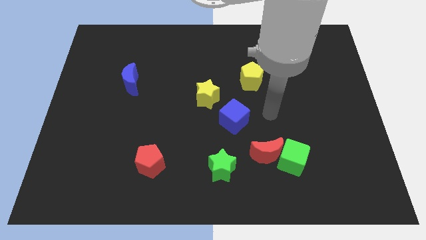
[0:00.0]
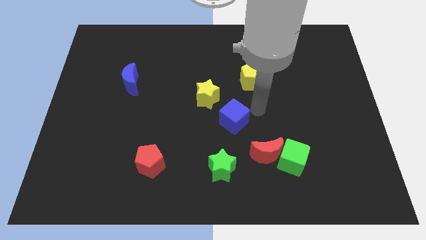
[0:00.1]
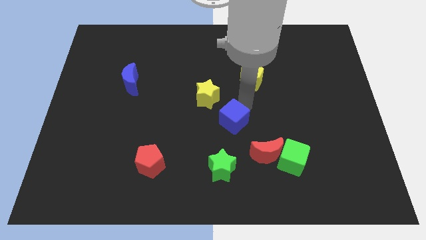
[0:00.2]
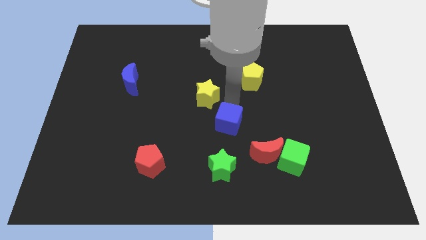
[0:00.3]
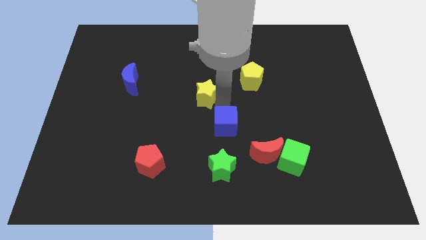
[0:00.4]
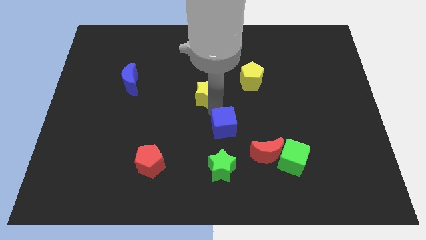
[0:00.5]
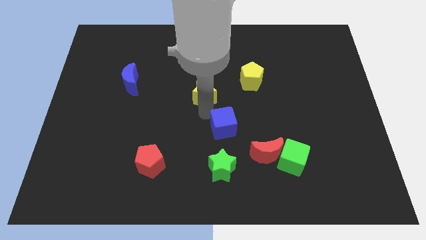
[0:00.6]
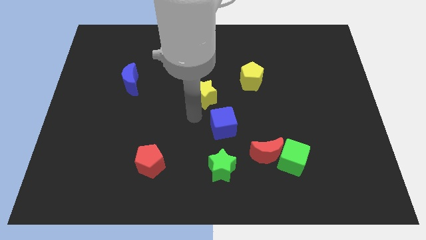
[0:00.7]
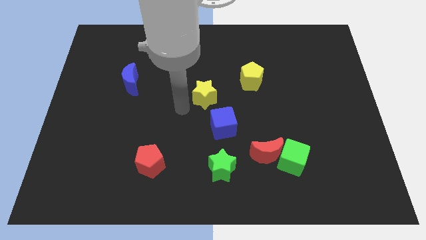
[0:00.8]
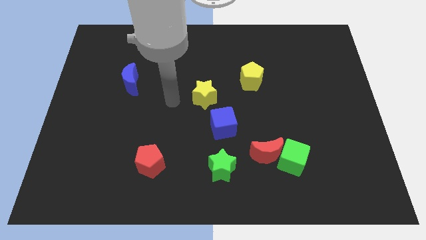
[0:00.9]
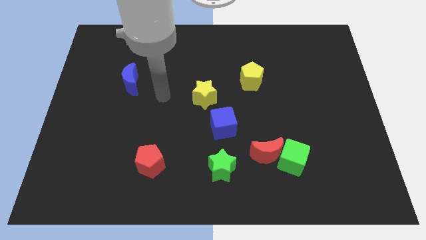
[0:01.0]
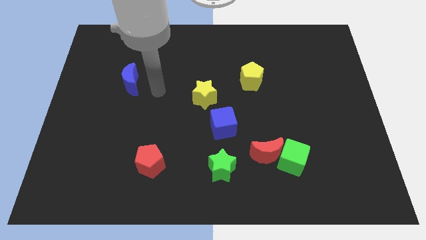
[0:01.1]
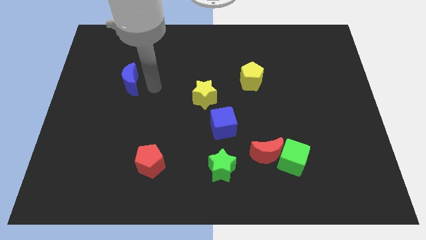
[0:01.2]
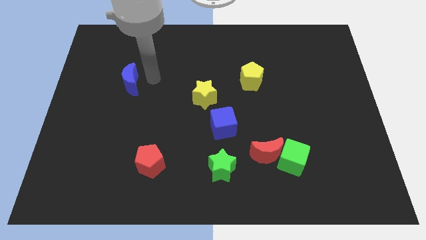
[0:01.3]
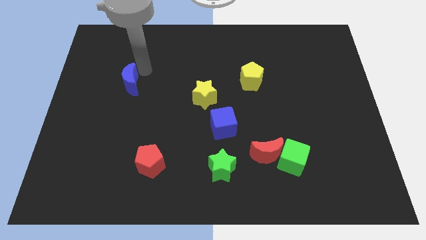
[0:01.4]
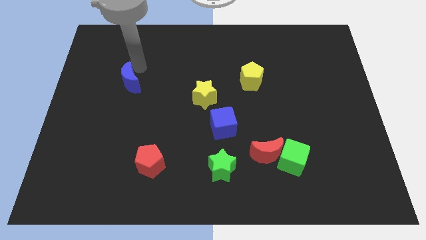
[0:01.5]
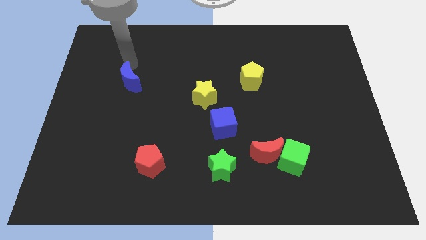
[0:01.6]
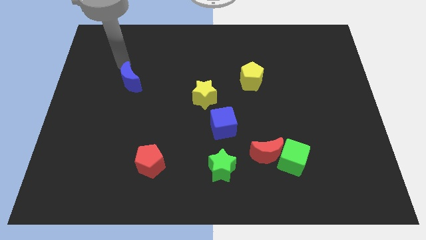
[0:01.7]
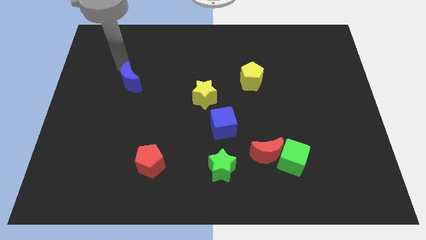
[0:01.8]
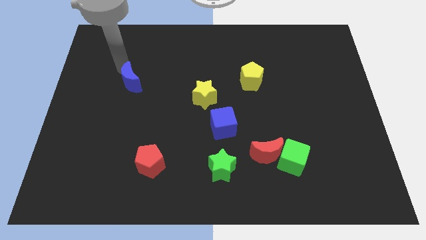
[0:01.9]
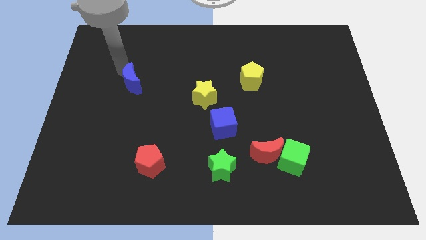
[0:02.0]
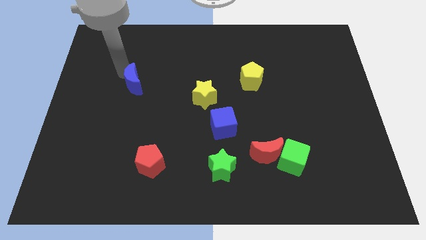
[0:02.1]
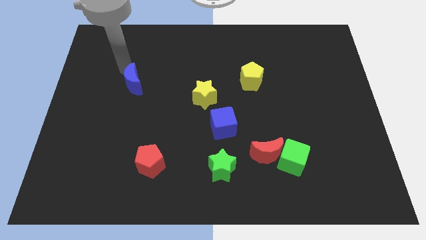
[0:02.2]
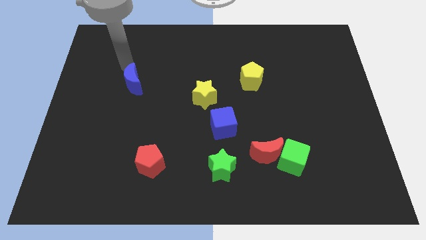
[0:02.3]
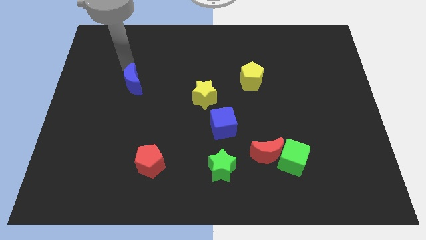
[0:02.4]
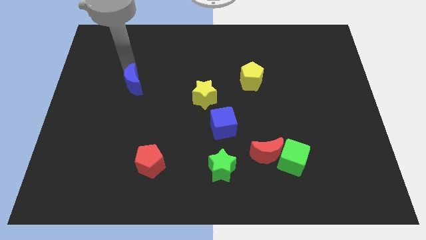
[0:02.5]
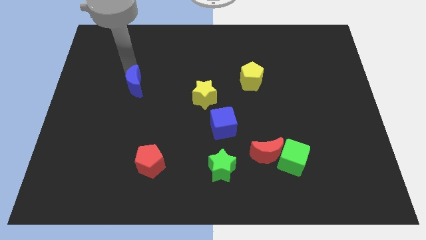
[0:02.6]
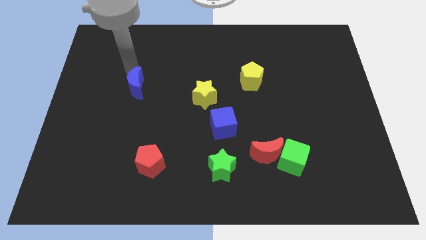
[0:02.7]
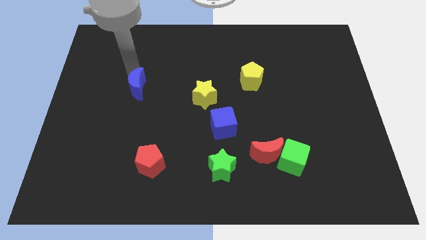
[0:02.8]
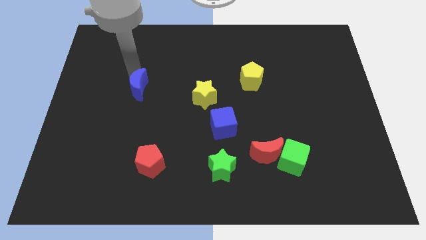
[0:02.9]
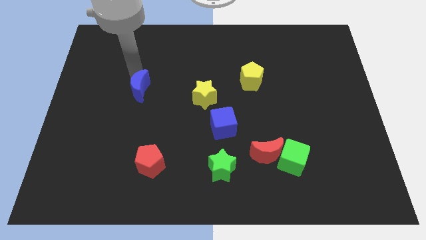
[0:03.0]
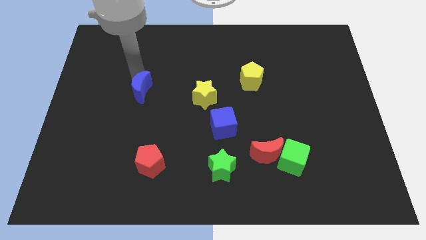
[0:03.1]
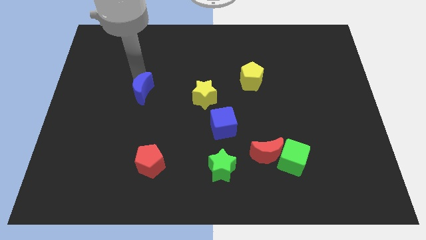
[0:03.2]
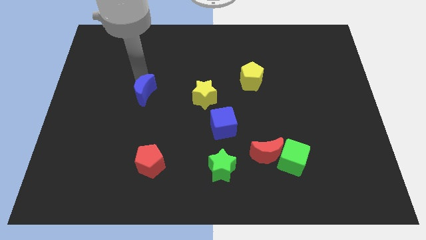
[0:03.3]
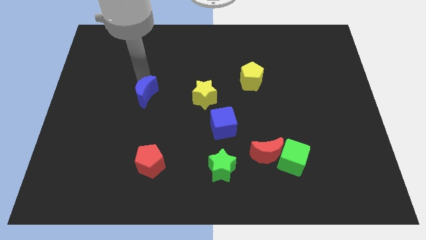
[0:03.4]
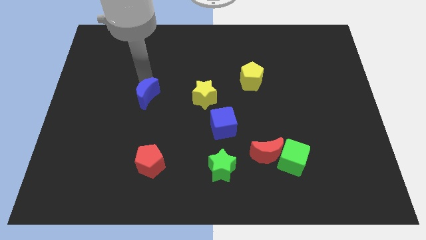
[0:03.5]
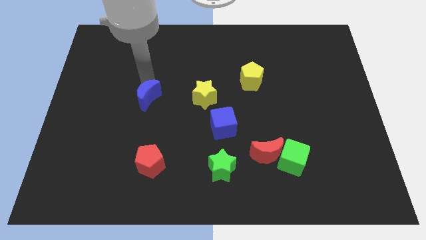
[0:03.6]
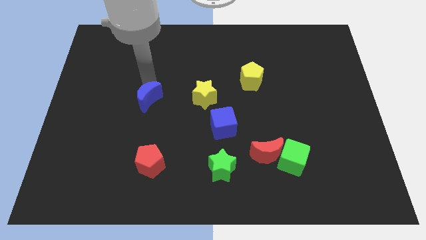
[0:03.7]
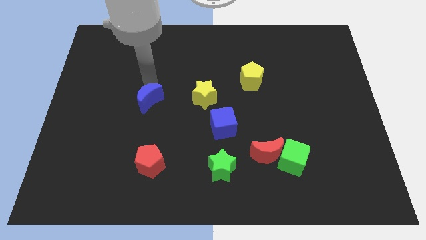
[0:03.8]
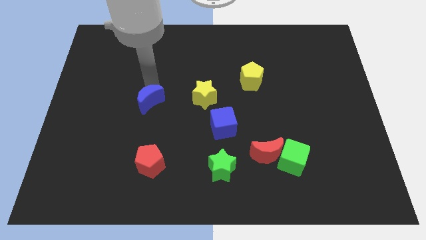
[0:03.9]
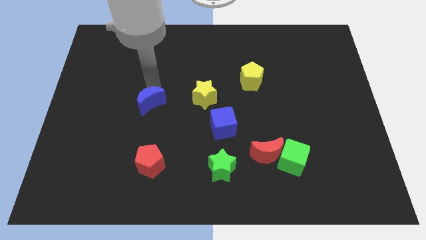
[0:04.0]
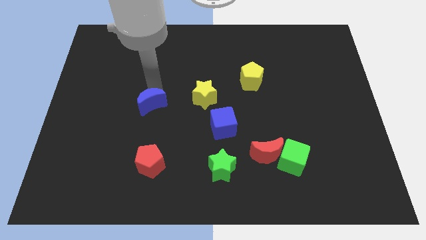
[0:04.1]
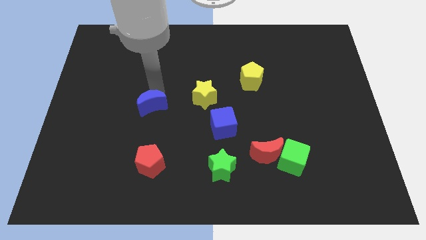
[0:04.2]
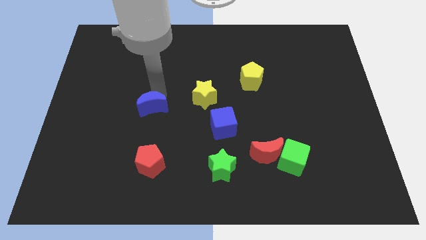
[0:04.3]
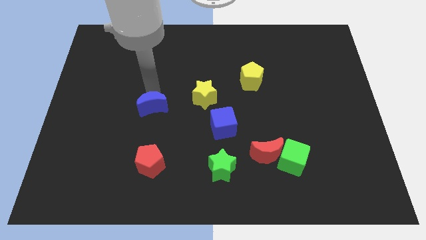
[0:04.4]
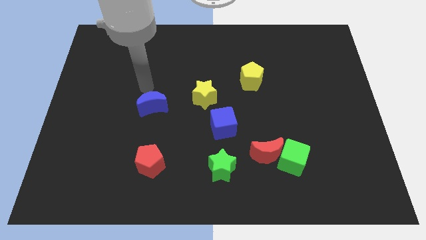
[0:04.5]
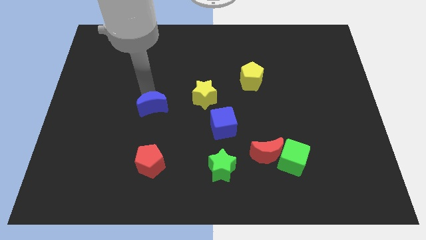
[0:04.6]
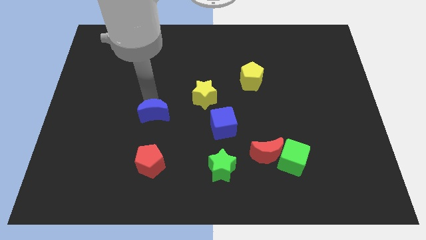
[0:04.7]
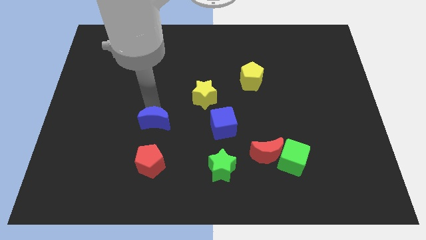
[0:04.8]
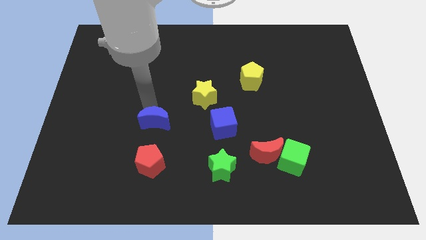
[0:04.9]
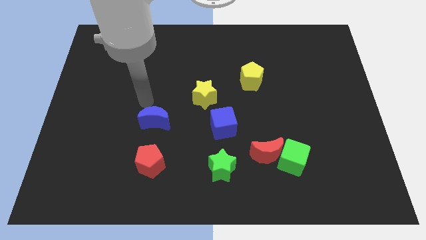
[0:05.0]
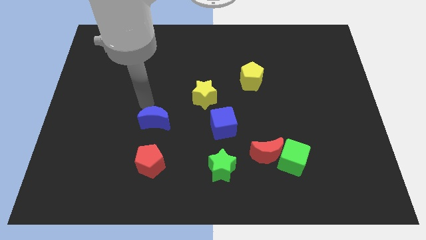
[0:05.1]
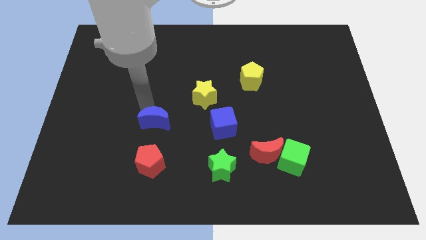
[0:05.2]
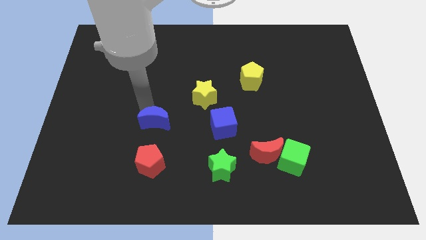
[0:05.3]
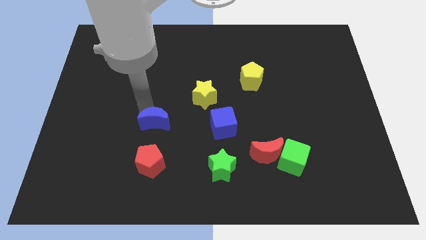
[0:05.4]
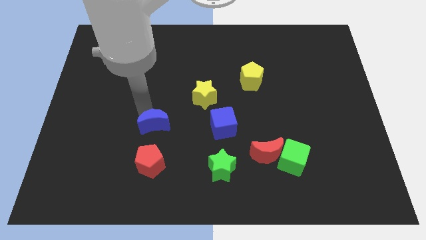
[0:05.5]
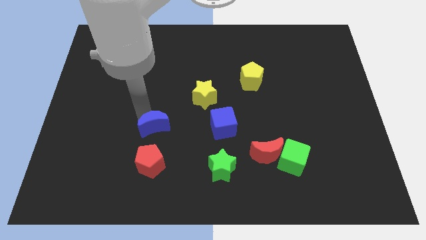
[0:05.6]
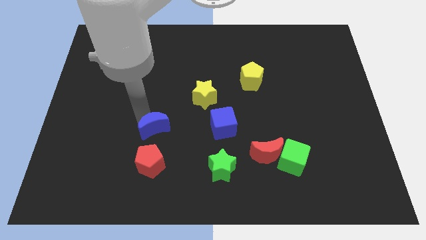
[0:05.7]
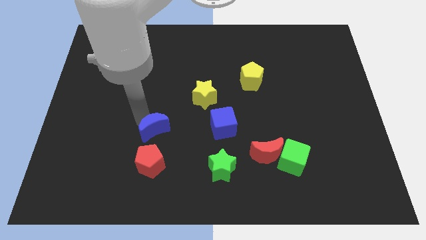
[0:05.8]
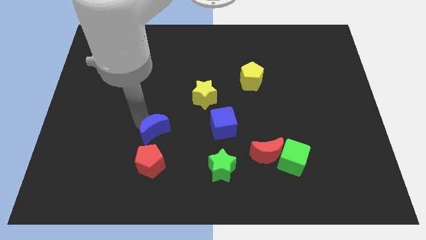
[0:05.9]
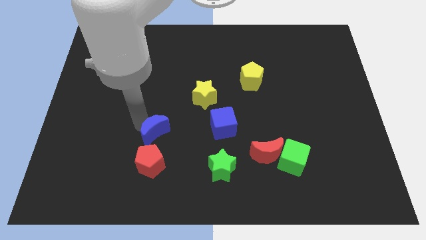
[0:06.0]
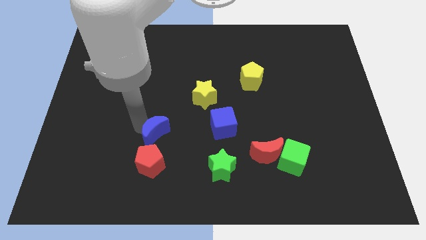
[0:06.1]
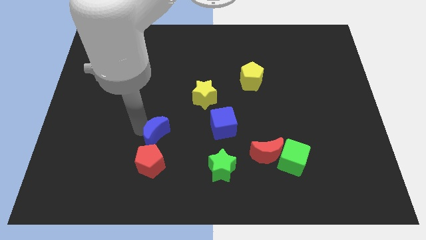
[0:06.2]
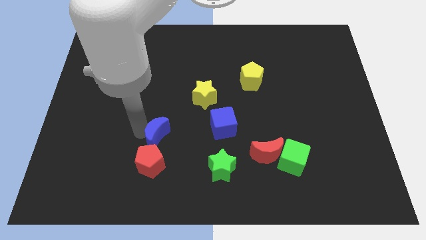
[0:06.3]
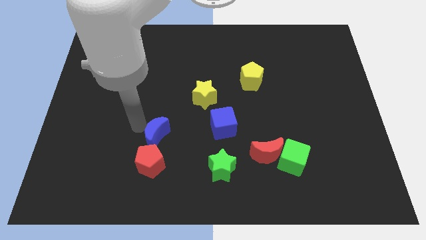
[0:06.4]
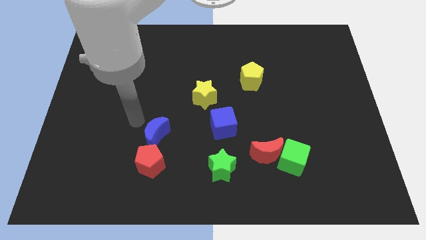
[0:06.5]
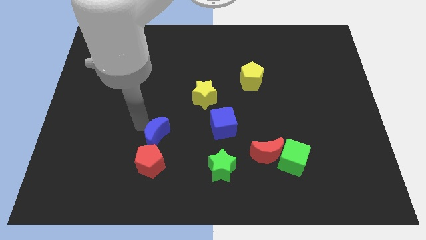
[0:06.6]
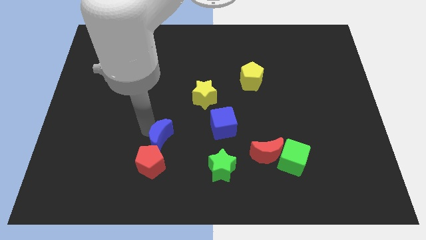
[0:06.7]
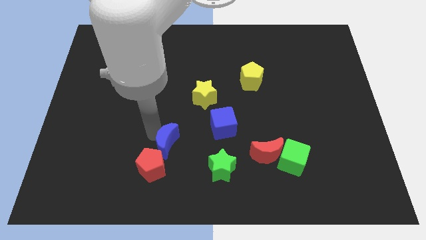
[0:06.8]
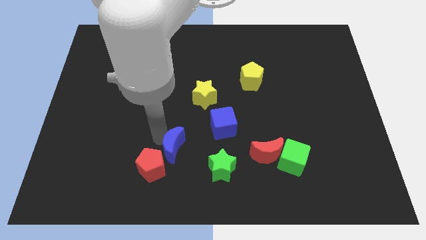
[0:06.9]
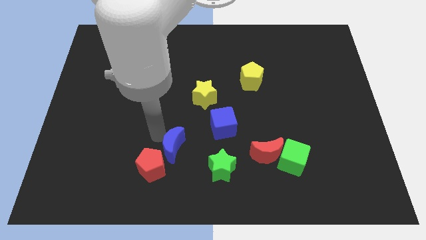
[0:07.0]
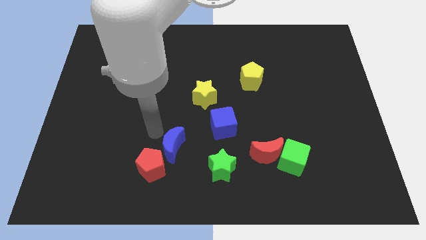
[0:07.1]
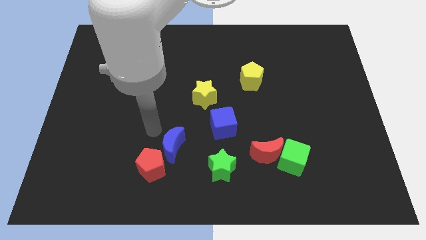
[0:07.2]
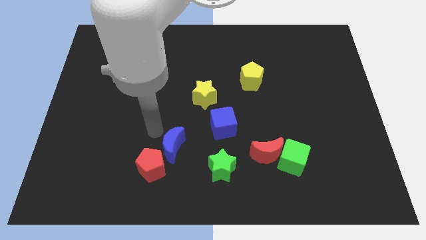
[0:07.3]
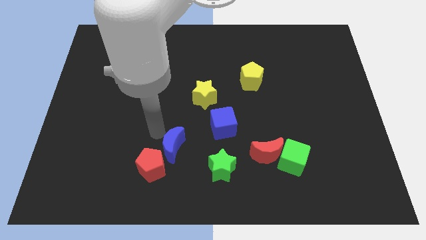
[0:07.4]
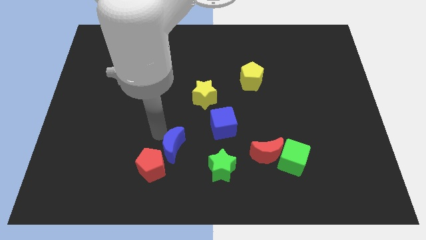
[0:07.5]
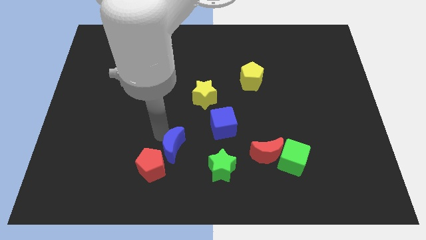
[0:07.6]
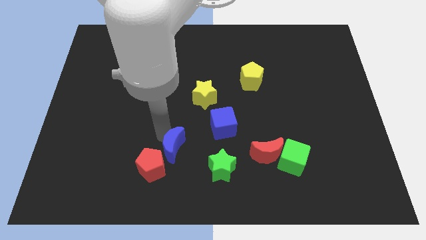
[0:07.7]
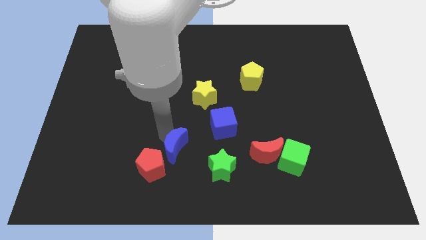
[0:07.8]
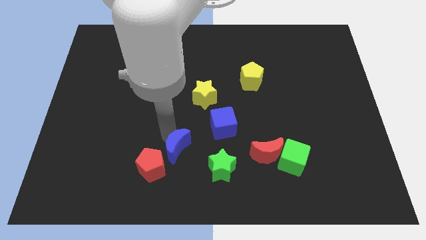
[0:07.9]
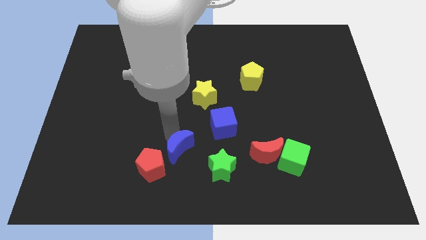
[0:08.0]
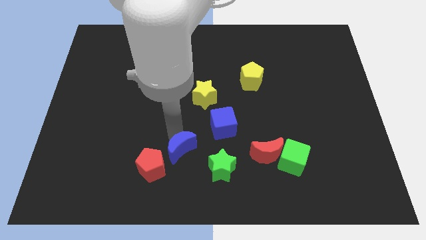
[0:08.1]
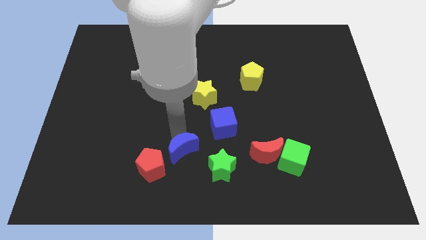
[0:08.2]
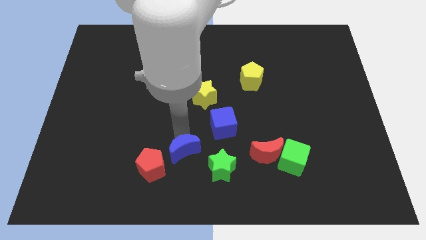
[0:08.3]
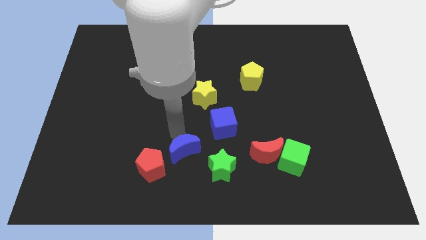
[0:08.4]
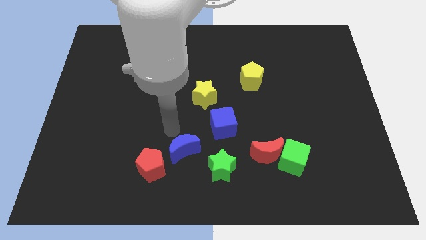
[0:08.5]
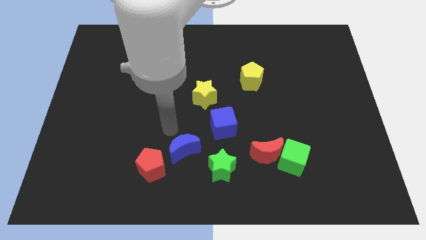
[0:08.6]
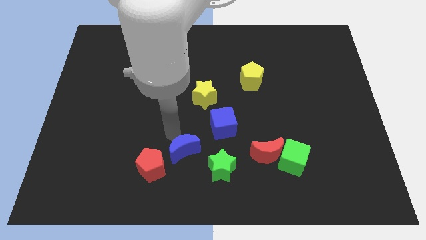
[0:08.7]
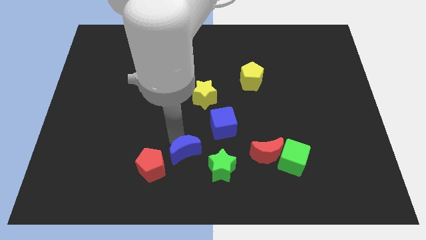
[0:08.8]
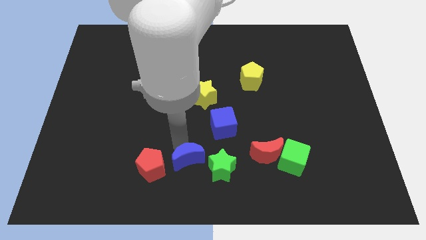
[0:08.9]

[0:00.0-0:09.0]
put the blue moon to the bottom
